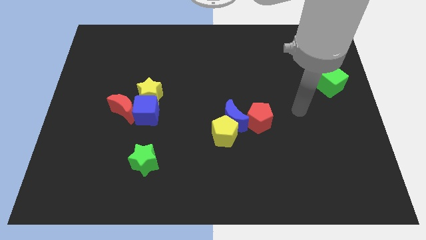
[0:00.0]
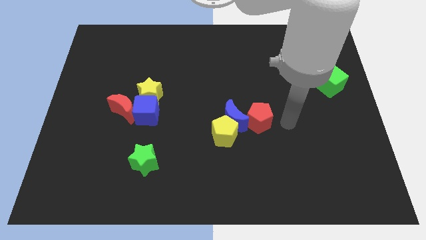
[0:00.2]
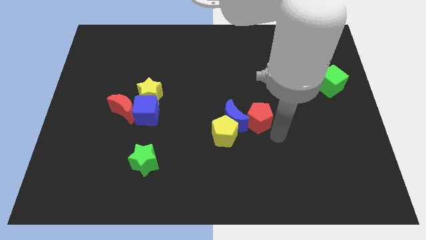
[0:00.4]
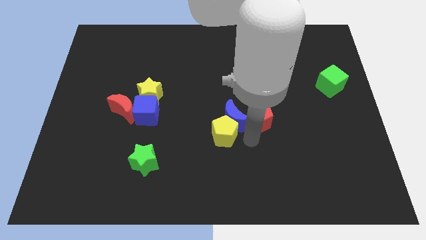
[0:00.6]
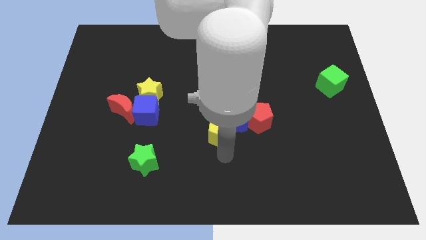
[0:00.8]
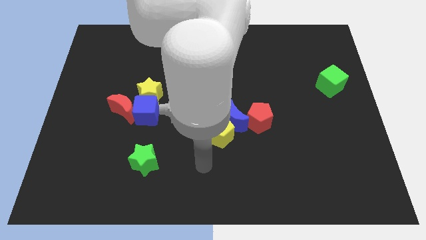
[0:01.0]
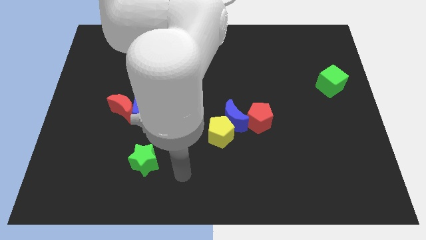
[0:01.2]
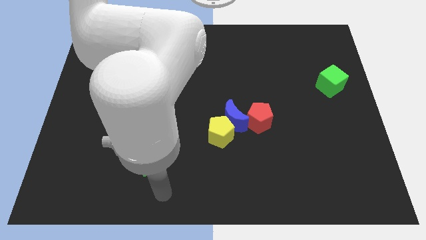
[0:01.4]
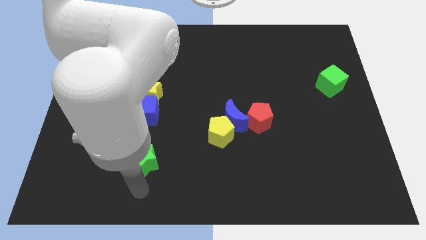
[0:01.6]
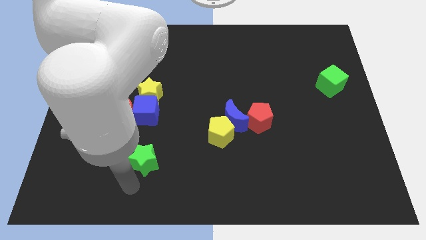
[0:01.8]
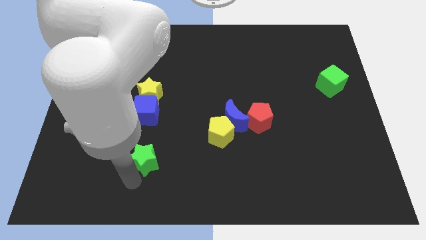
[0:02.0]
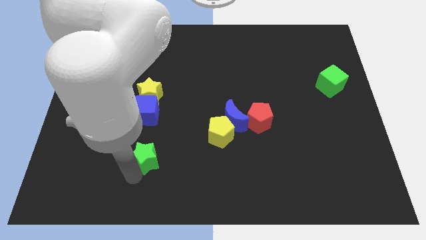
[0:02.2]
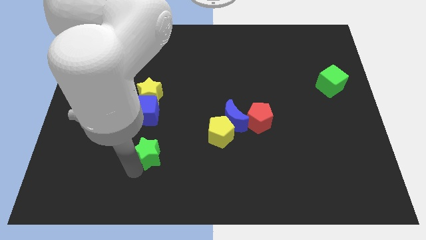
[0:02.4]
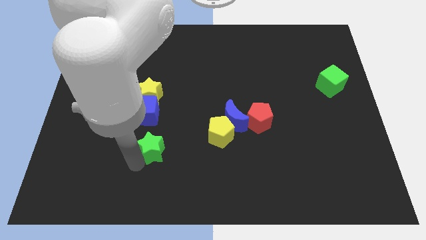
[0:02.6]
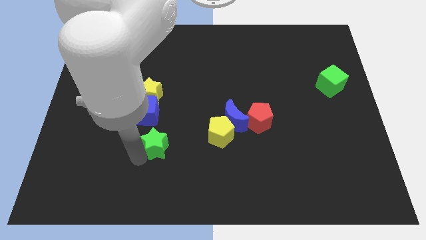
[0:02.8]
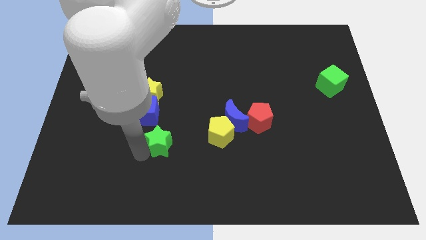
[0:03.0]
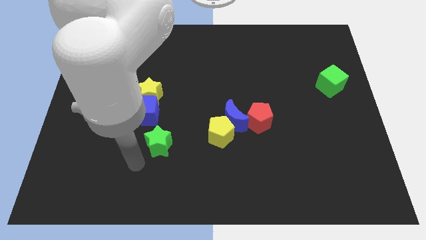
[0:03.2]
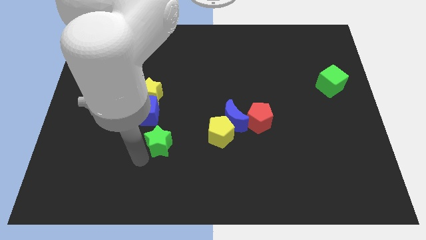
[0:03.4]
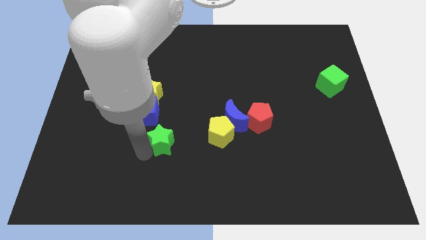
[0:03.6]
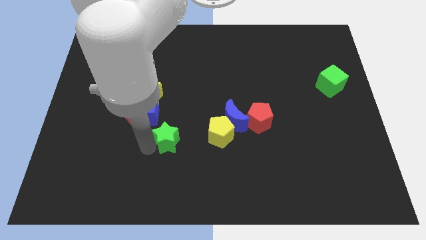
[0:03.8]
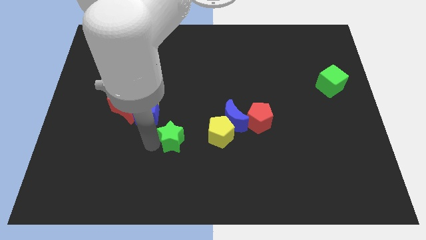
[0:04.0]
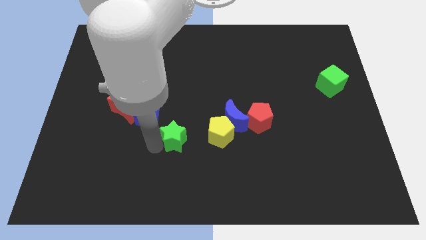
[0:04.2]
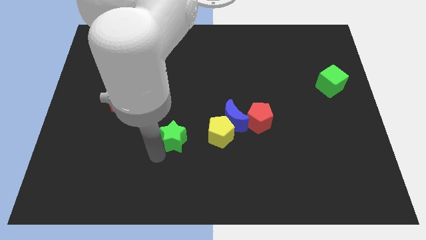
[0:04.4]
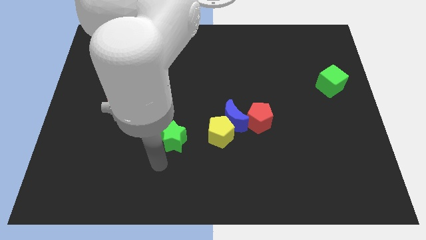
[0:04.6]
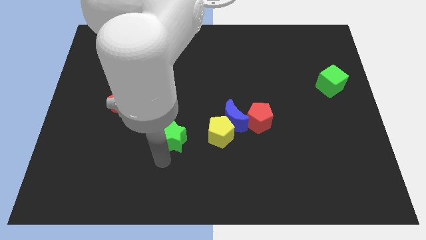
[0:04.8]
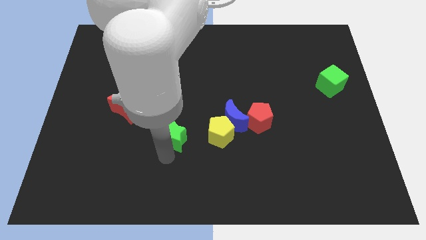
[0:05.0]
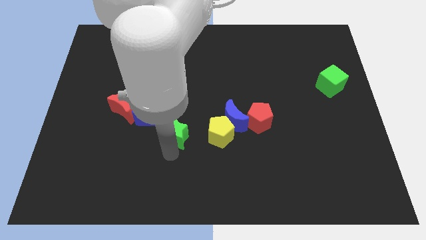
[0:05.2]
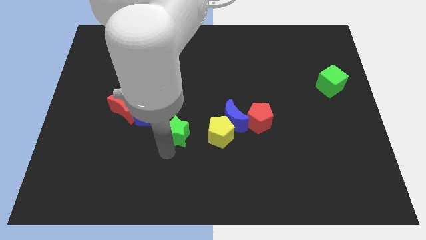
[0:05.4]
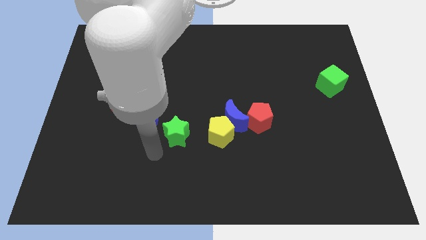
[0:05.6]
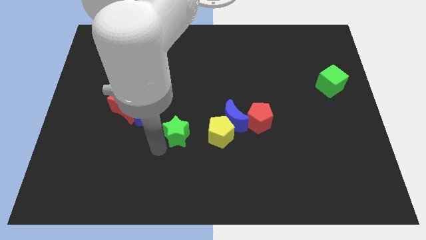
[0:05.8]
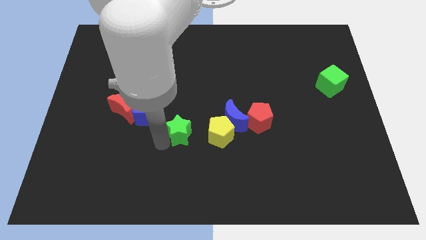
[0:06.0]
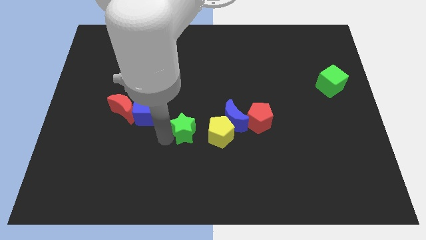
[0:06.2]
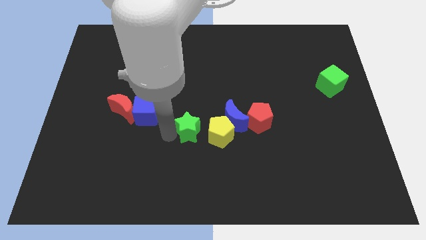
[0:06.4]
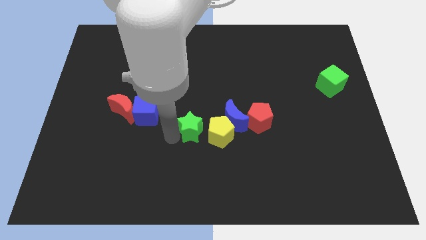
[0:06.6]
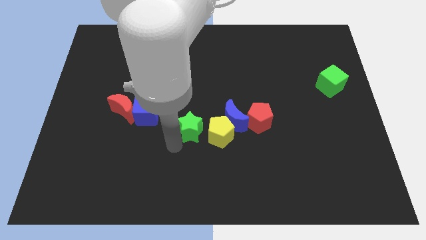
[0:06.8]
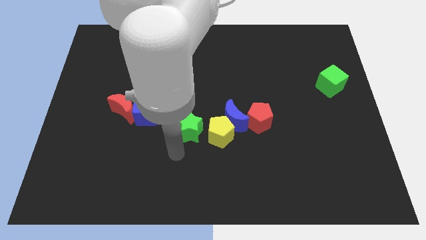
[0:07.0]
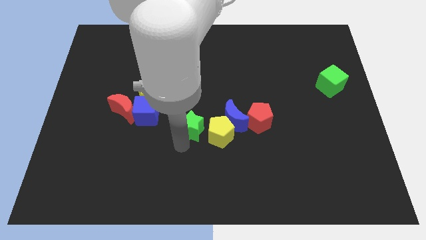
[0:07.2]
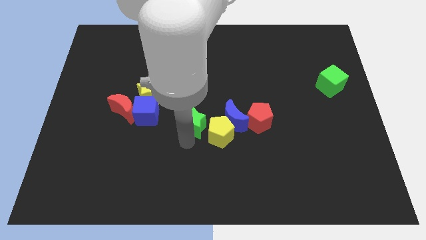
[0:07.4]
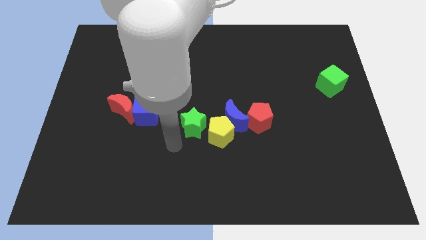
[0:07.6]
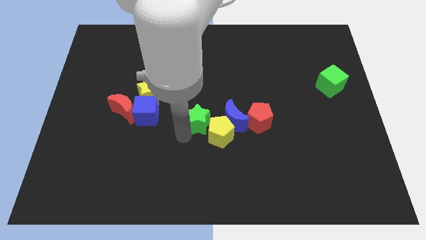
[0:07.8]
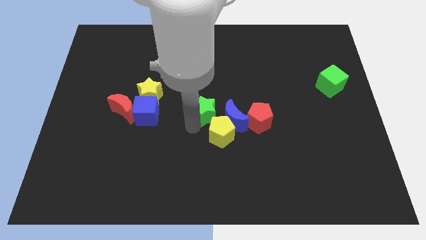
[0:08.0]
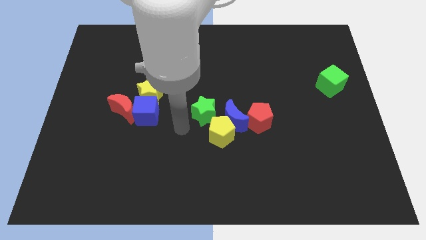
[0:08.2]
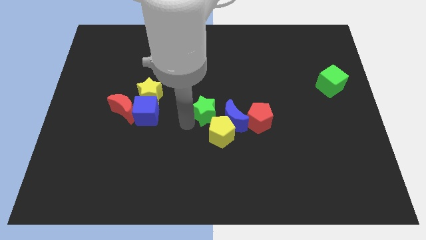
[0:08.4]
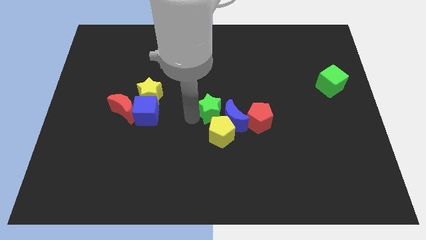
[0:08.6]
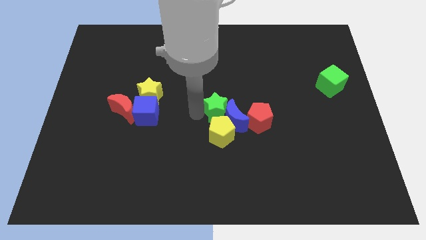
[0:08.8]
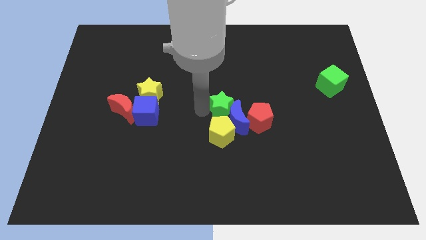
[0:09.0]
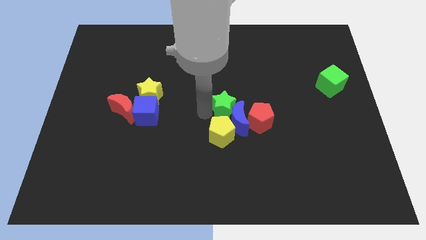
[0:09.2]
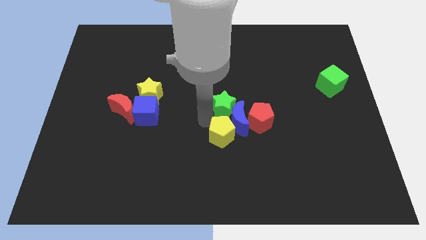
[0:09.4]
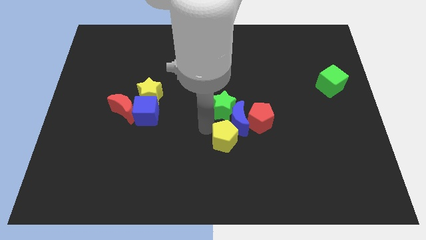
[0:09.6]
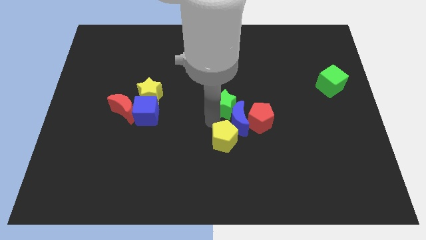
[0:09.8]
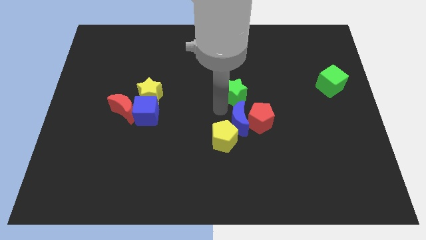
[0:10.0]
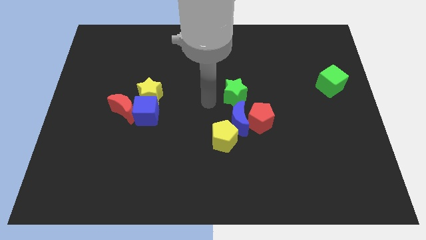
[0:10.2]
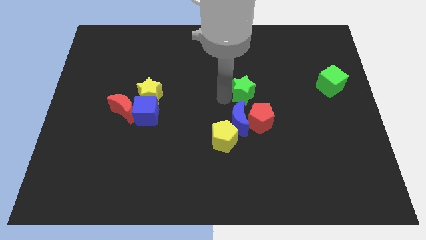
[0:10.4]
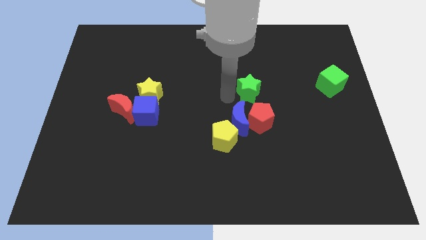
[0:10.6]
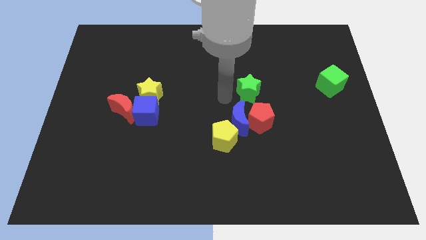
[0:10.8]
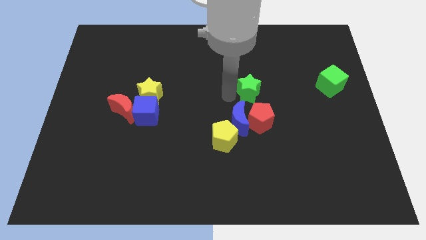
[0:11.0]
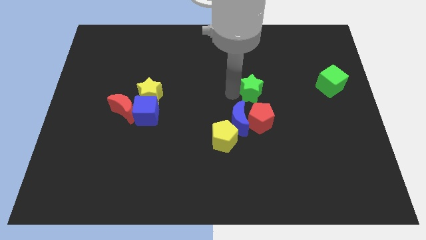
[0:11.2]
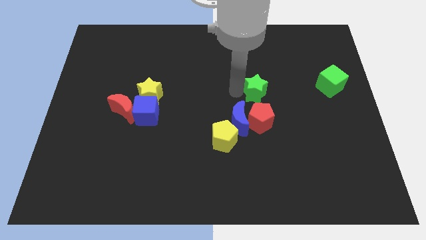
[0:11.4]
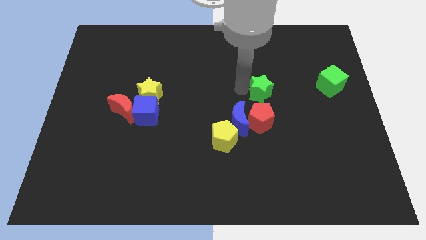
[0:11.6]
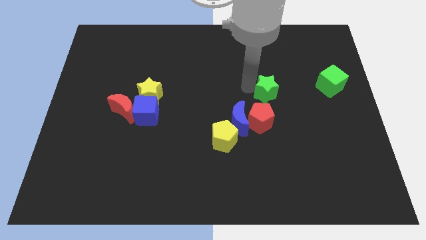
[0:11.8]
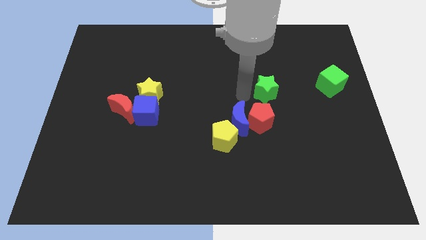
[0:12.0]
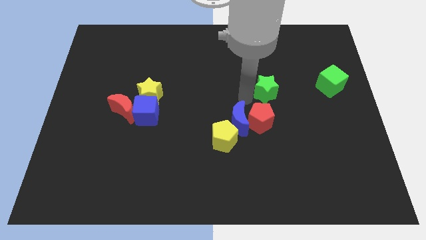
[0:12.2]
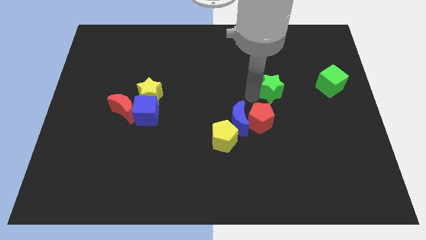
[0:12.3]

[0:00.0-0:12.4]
push the green star to the left of the green cube

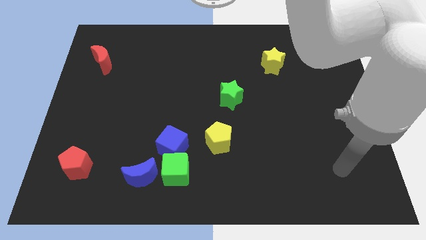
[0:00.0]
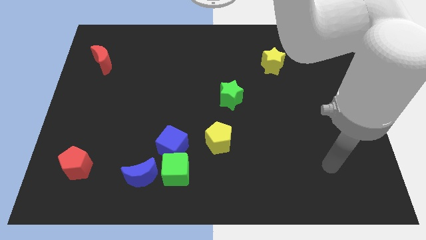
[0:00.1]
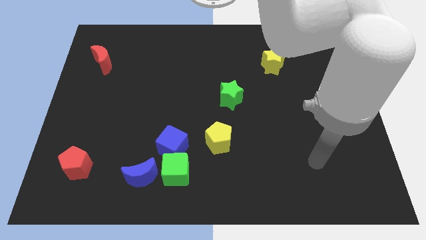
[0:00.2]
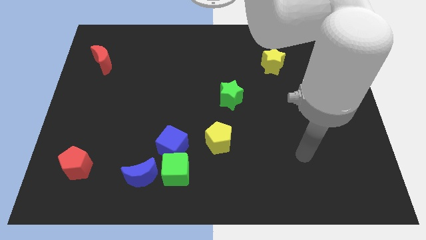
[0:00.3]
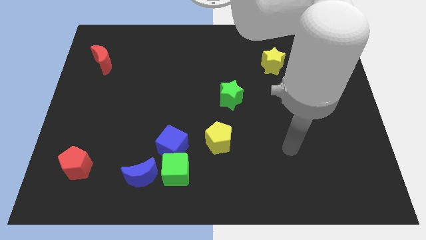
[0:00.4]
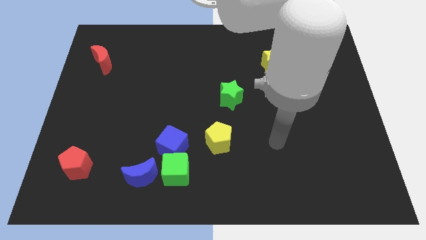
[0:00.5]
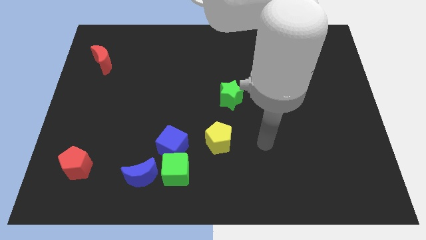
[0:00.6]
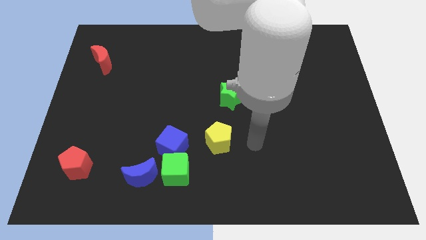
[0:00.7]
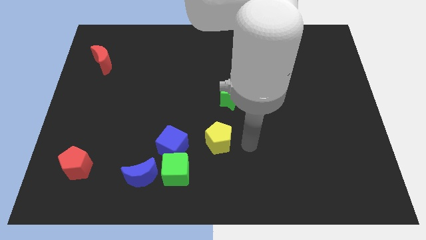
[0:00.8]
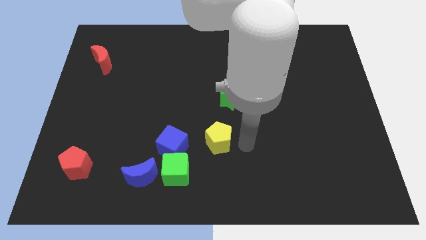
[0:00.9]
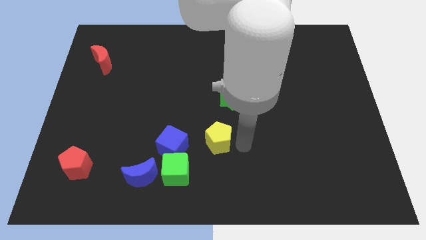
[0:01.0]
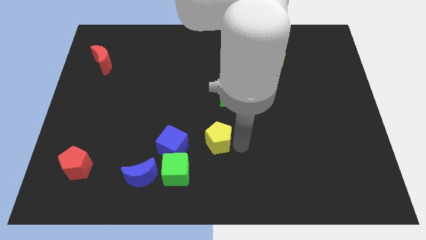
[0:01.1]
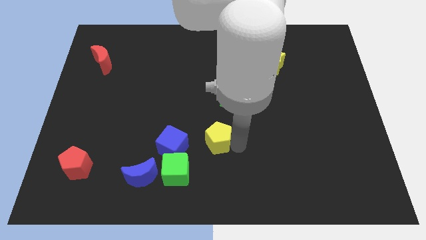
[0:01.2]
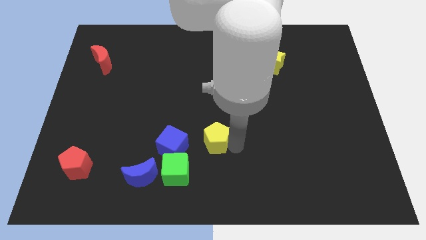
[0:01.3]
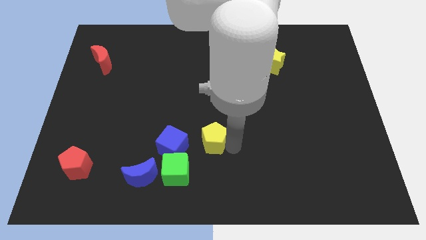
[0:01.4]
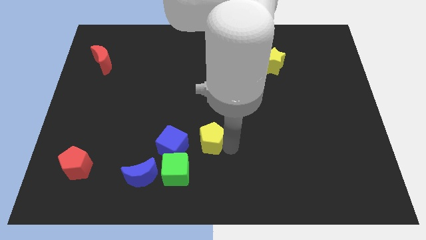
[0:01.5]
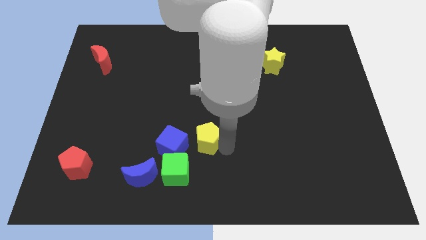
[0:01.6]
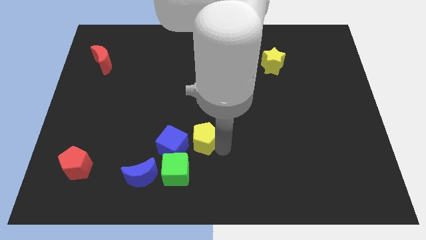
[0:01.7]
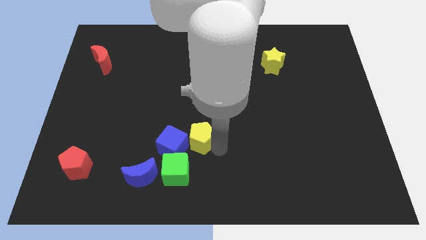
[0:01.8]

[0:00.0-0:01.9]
move the yellow pentagon above the green cube
